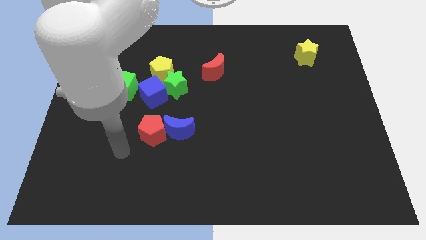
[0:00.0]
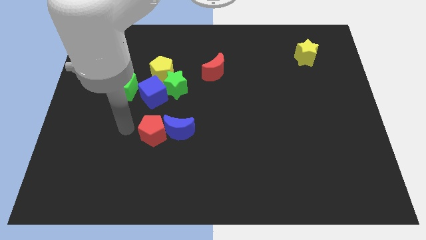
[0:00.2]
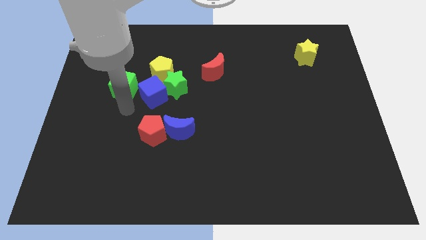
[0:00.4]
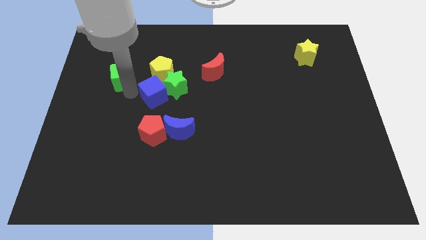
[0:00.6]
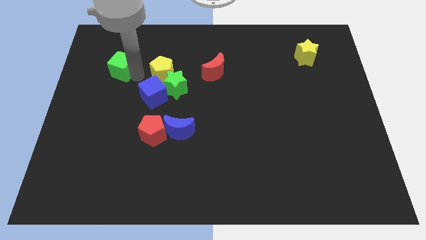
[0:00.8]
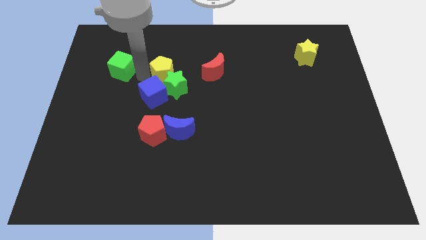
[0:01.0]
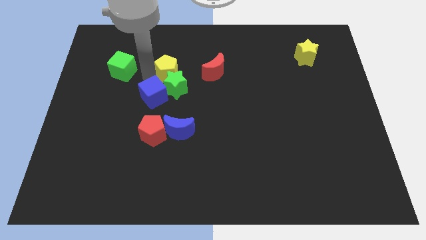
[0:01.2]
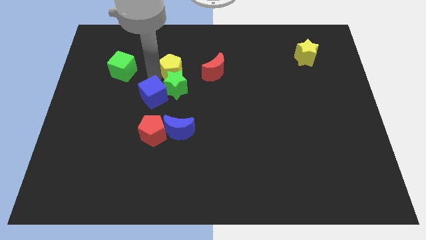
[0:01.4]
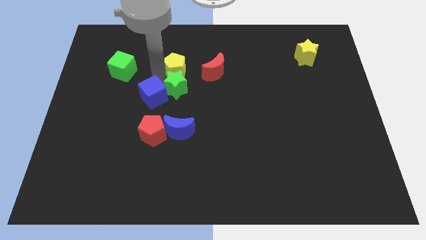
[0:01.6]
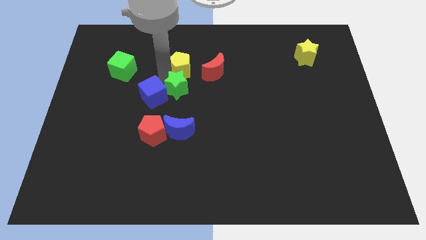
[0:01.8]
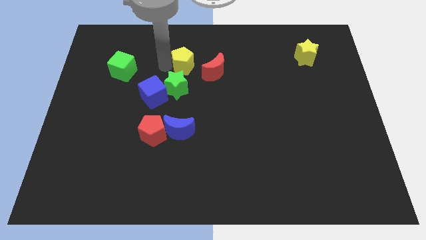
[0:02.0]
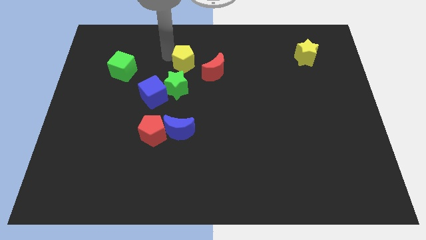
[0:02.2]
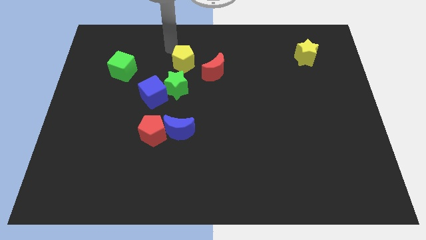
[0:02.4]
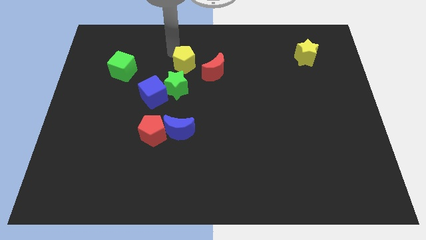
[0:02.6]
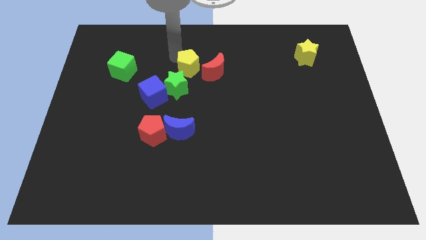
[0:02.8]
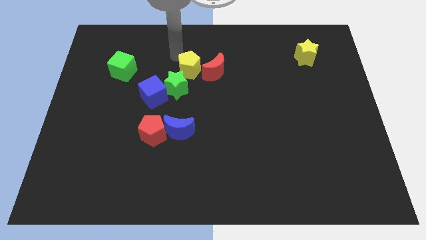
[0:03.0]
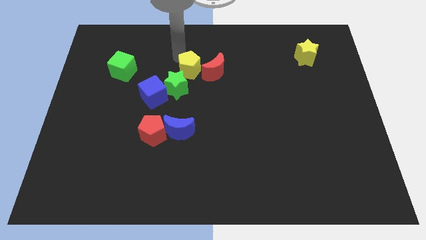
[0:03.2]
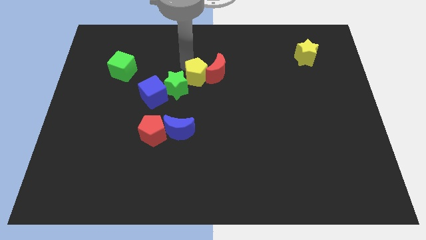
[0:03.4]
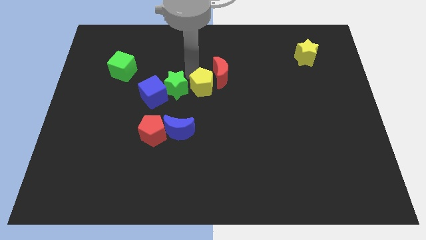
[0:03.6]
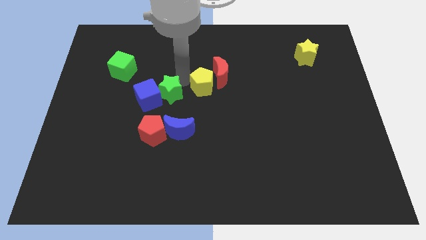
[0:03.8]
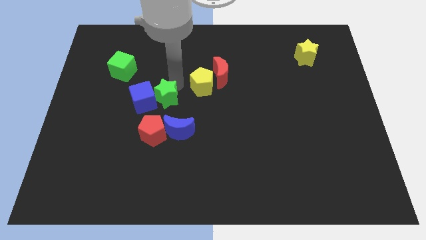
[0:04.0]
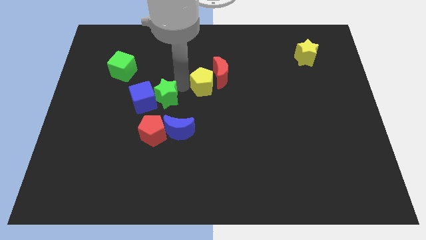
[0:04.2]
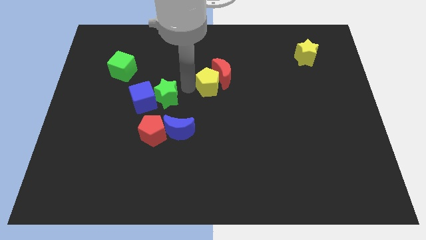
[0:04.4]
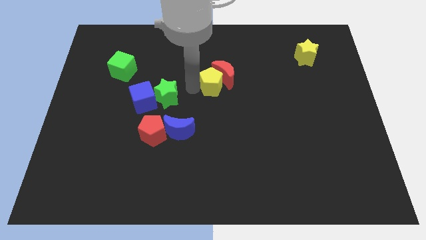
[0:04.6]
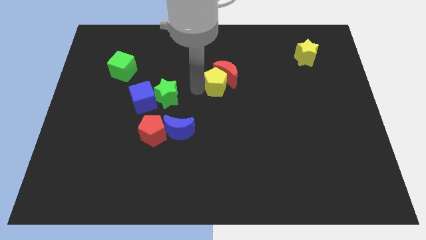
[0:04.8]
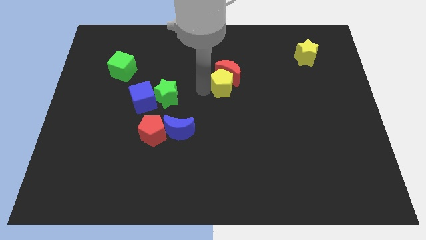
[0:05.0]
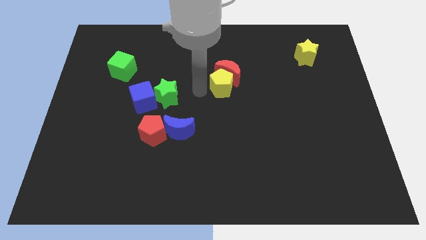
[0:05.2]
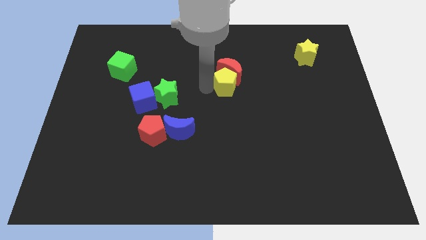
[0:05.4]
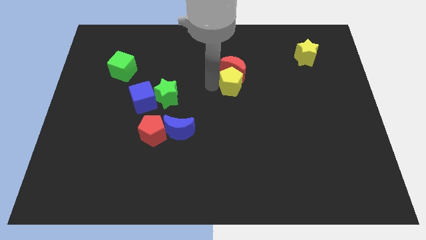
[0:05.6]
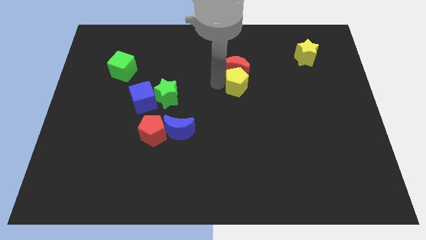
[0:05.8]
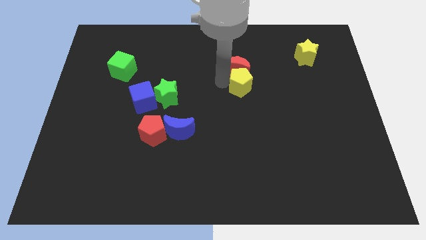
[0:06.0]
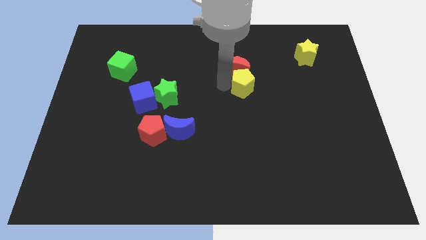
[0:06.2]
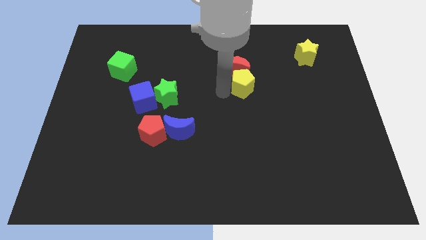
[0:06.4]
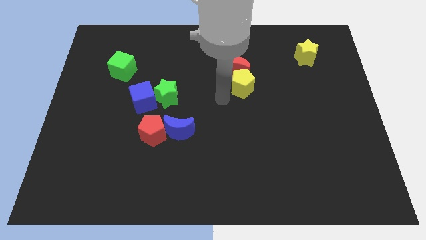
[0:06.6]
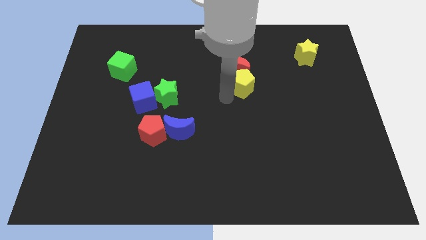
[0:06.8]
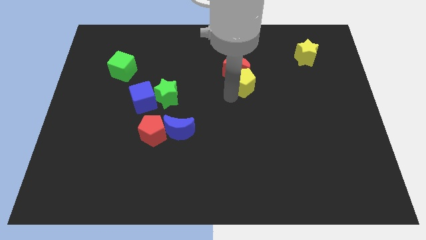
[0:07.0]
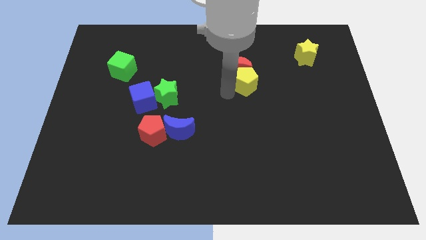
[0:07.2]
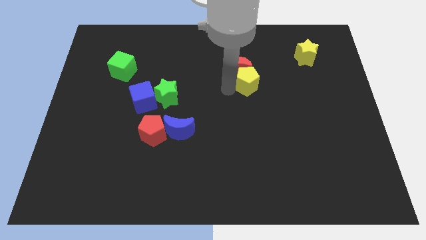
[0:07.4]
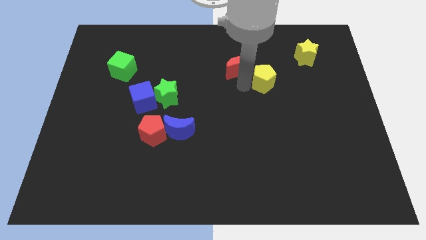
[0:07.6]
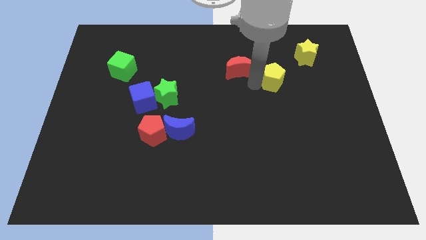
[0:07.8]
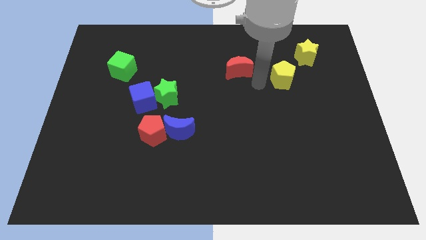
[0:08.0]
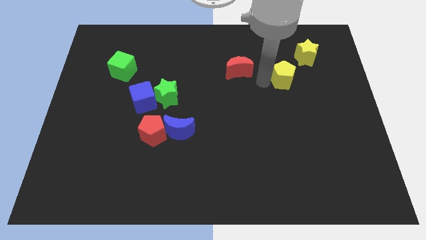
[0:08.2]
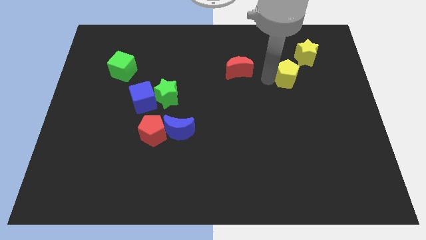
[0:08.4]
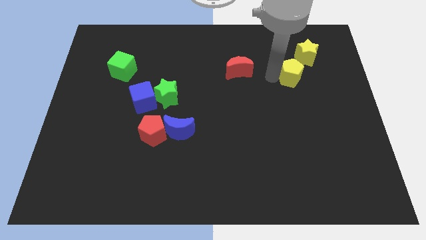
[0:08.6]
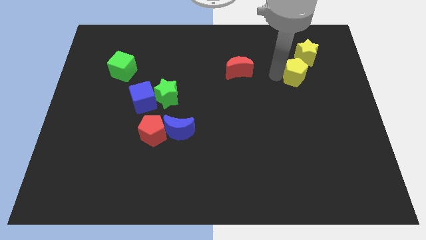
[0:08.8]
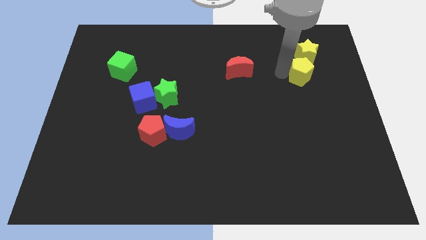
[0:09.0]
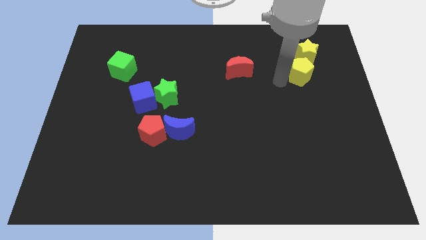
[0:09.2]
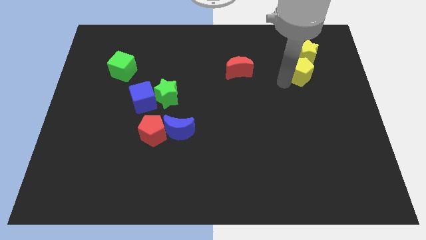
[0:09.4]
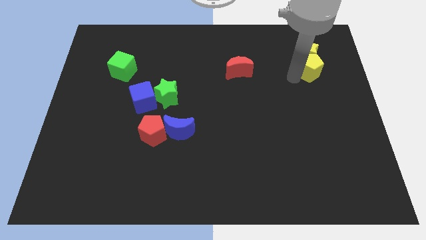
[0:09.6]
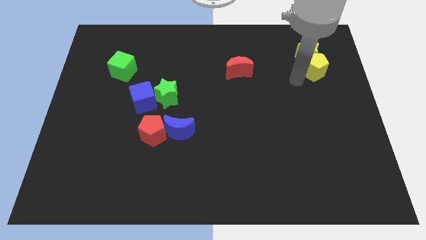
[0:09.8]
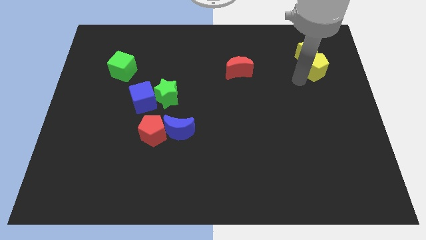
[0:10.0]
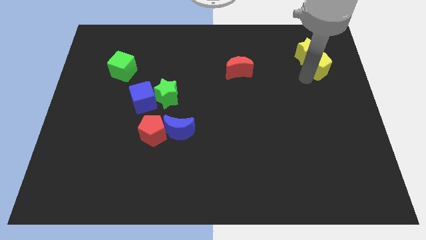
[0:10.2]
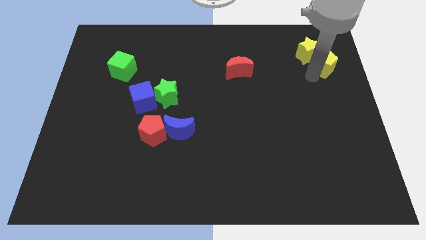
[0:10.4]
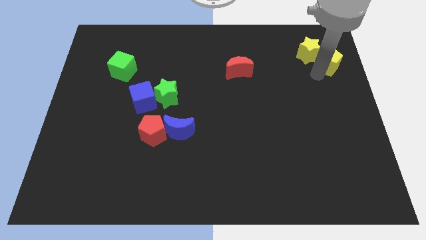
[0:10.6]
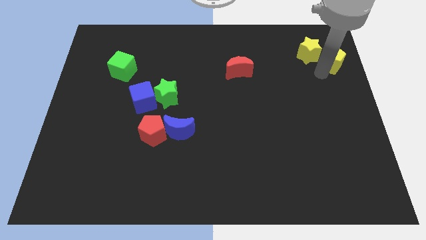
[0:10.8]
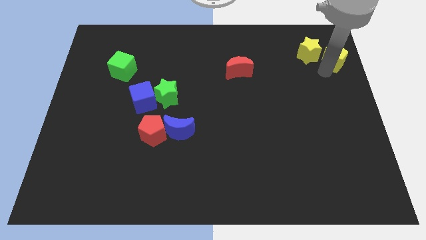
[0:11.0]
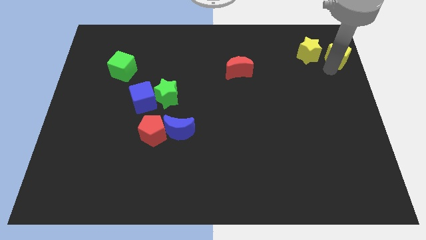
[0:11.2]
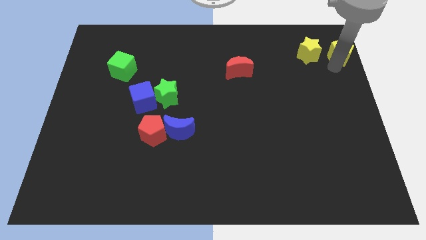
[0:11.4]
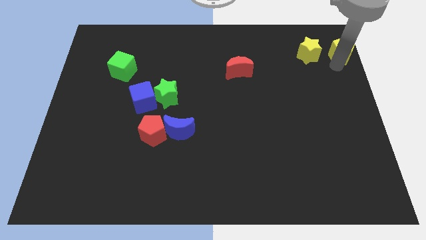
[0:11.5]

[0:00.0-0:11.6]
push the yellow pentagon to the top right of the board
